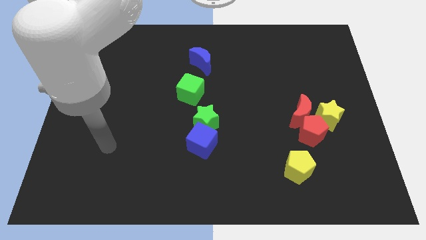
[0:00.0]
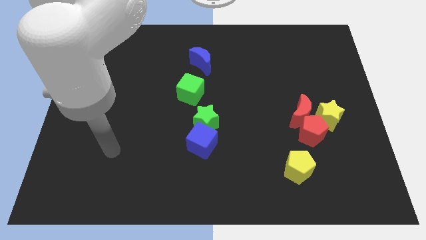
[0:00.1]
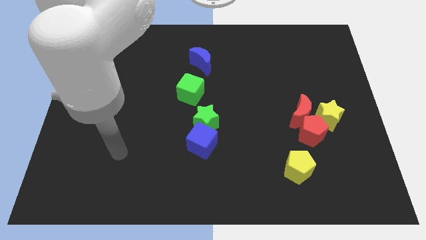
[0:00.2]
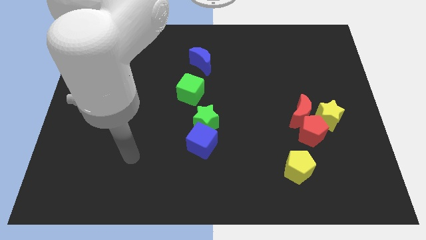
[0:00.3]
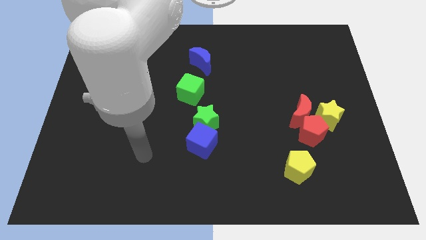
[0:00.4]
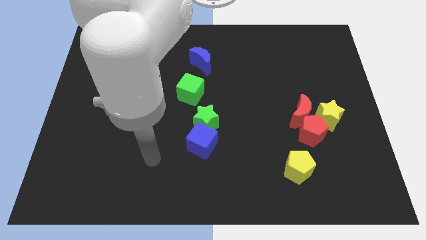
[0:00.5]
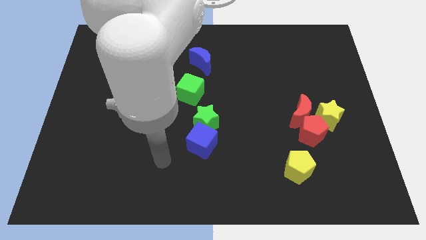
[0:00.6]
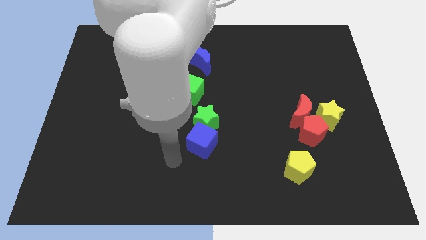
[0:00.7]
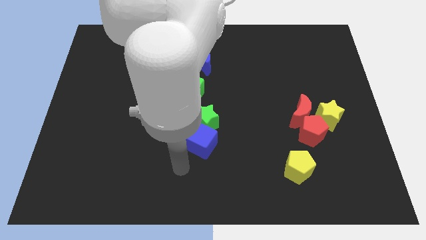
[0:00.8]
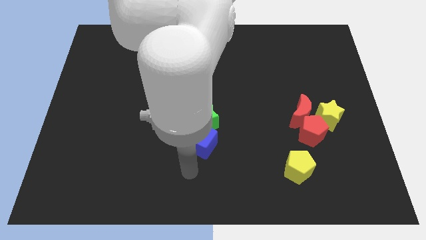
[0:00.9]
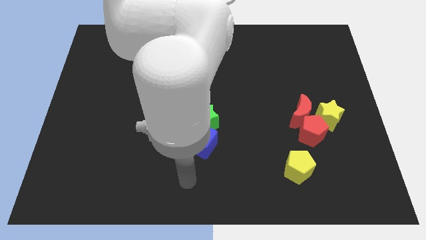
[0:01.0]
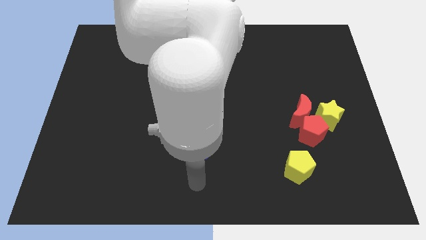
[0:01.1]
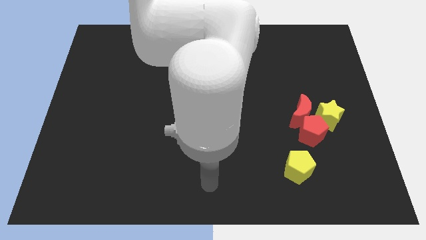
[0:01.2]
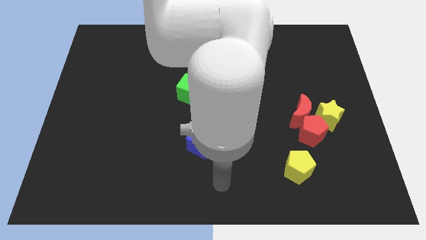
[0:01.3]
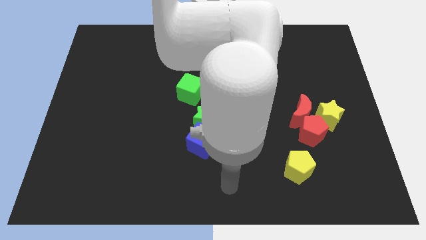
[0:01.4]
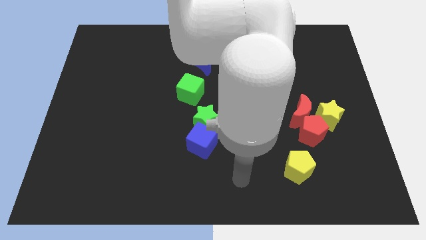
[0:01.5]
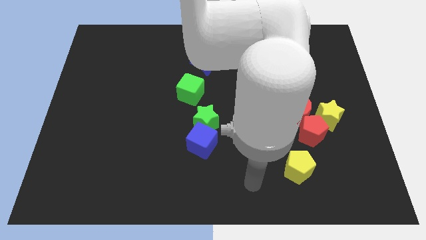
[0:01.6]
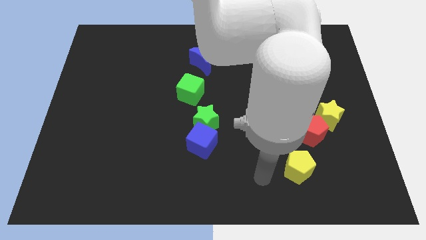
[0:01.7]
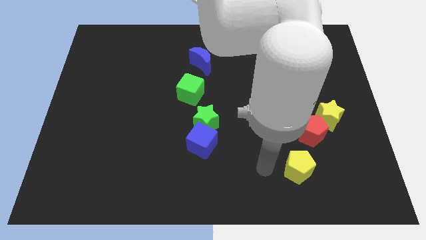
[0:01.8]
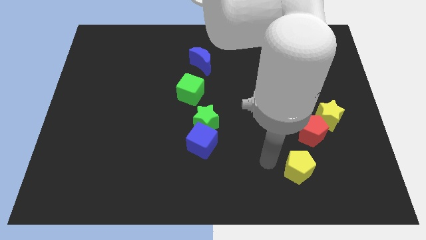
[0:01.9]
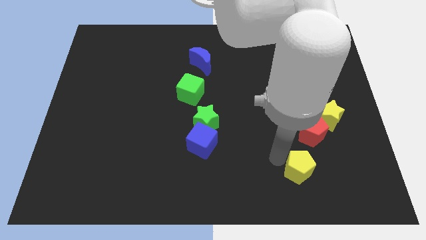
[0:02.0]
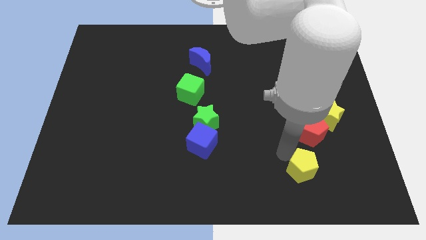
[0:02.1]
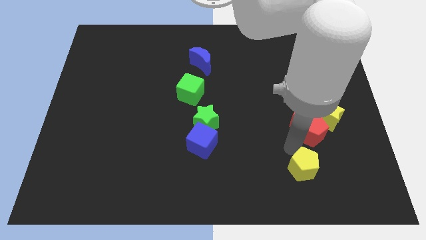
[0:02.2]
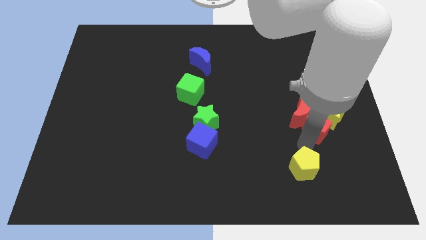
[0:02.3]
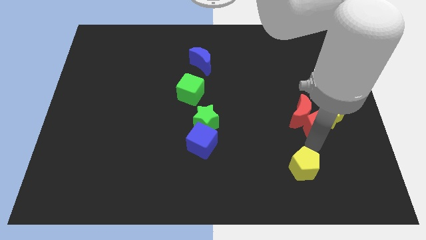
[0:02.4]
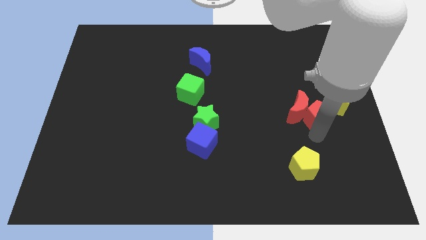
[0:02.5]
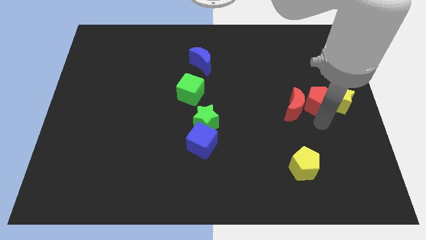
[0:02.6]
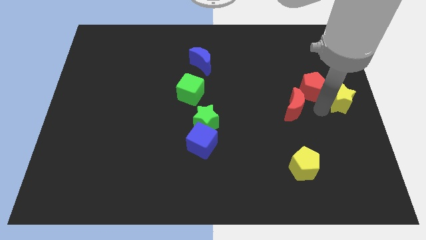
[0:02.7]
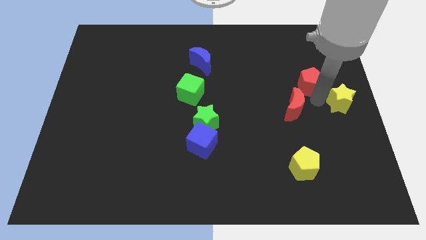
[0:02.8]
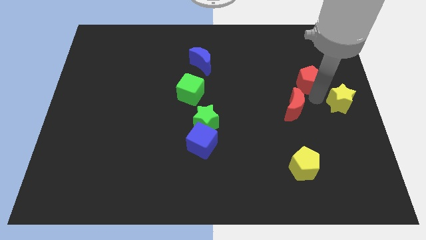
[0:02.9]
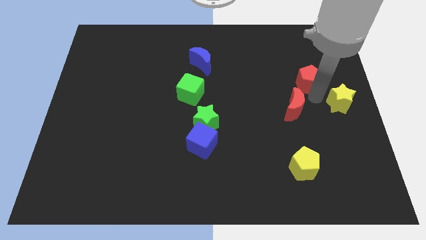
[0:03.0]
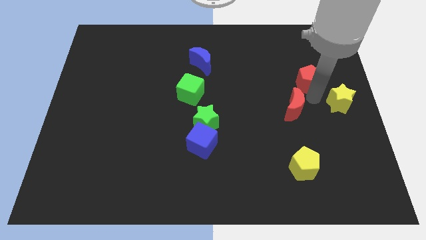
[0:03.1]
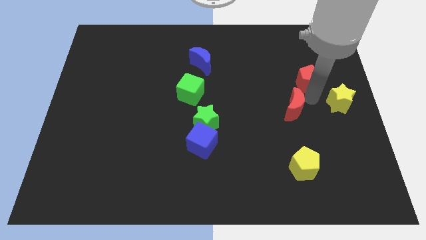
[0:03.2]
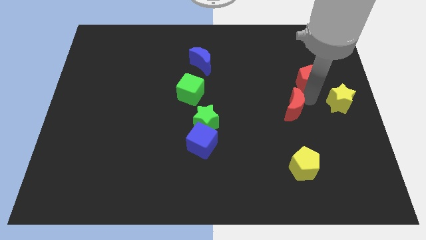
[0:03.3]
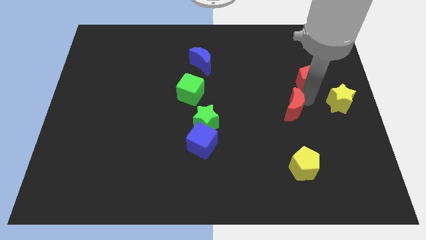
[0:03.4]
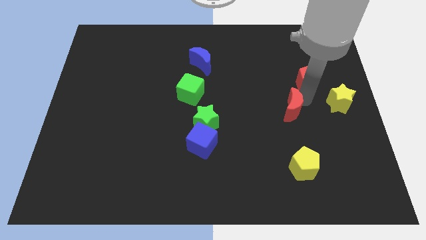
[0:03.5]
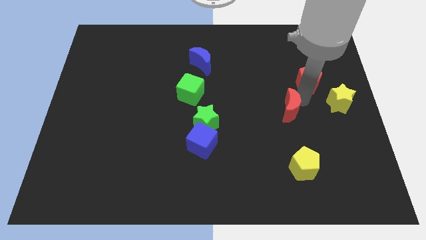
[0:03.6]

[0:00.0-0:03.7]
separate the red moon from the red pentagon and yellow star

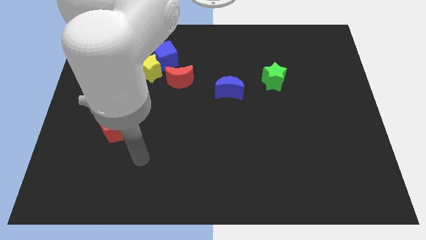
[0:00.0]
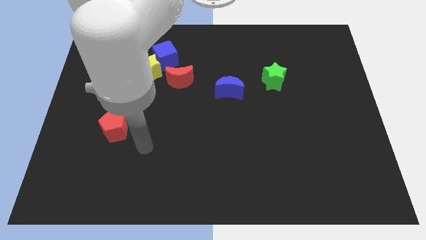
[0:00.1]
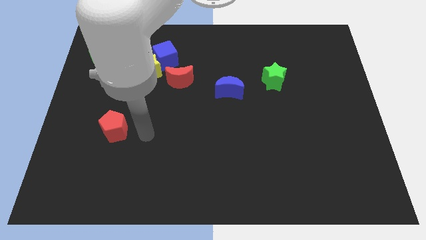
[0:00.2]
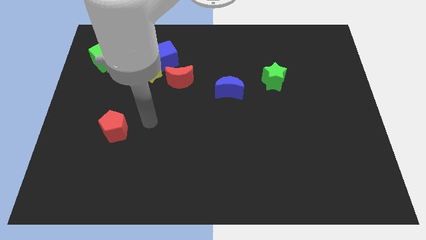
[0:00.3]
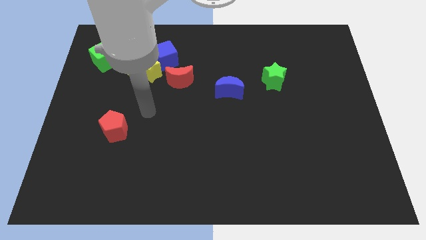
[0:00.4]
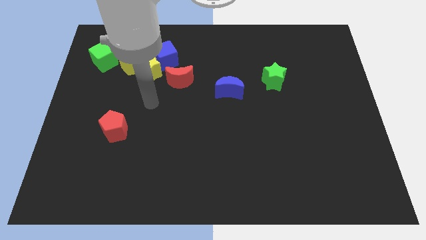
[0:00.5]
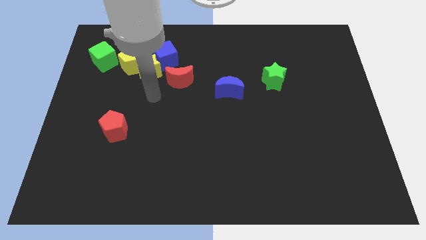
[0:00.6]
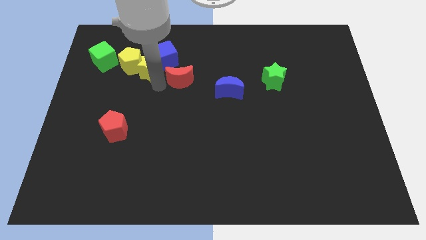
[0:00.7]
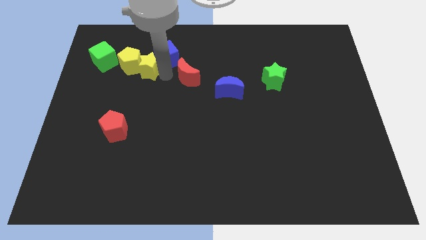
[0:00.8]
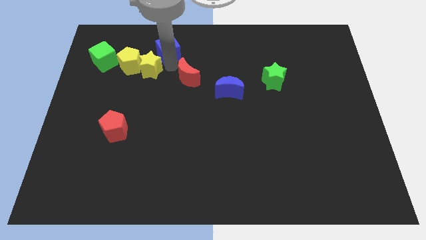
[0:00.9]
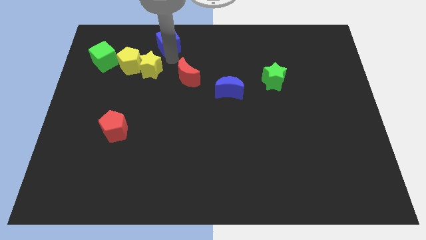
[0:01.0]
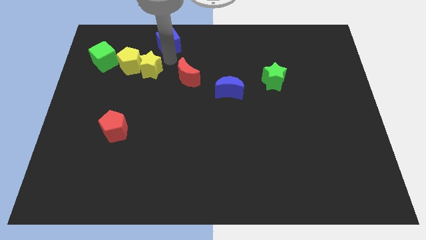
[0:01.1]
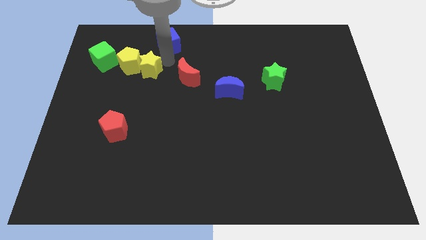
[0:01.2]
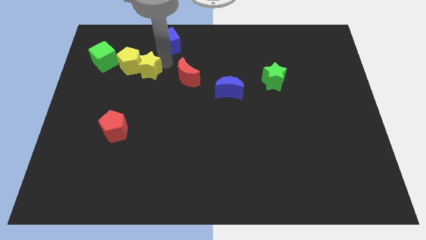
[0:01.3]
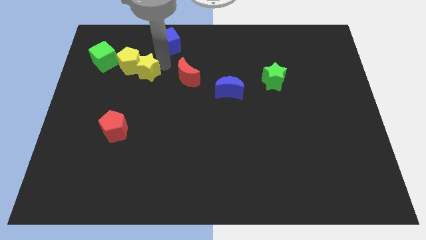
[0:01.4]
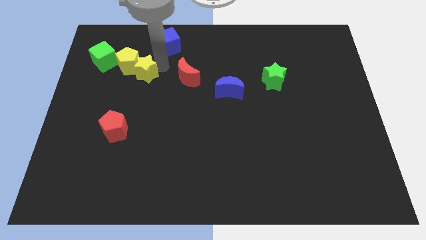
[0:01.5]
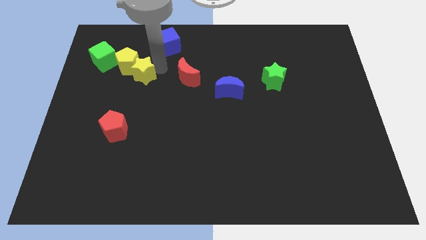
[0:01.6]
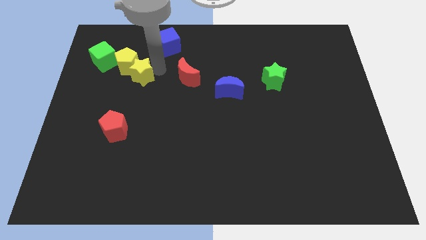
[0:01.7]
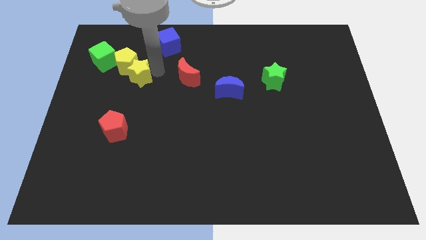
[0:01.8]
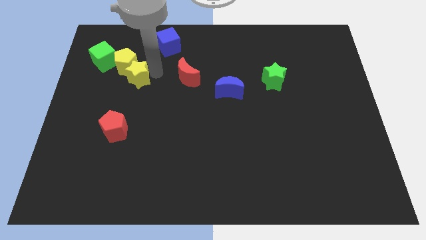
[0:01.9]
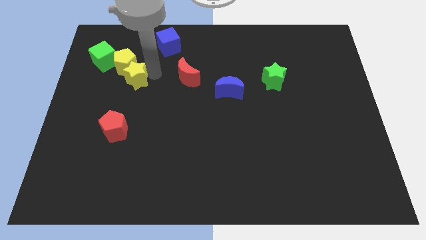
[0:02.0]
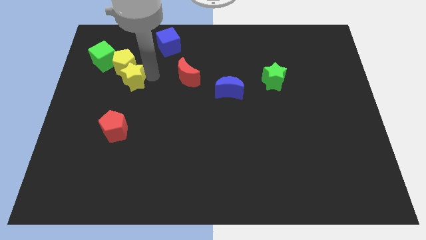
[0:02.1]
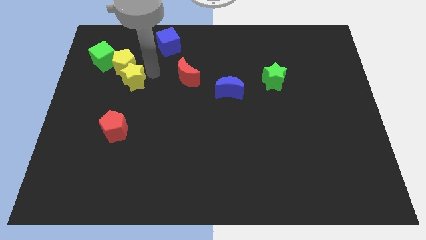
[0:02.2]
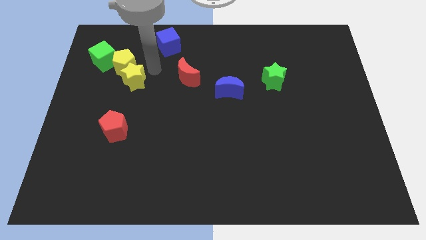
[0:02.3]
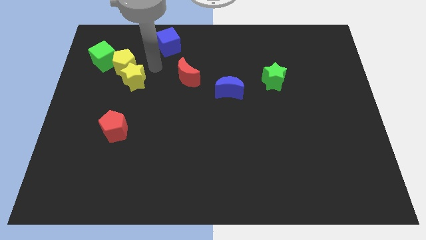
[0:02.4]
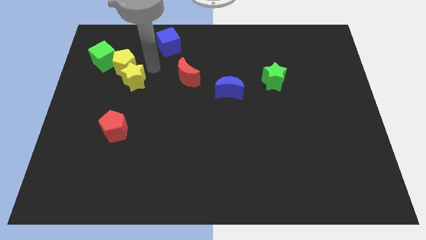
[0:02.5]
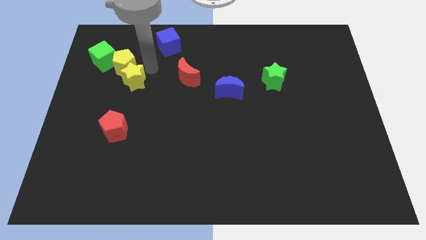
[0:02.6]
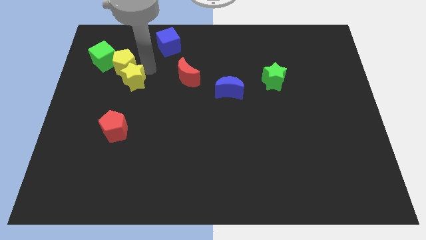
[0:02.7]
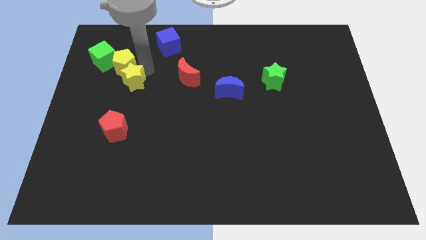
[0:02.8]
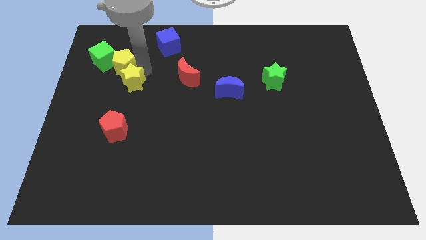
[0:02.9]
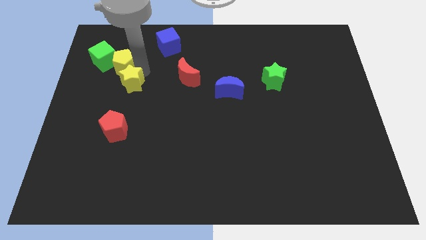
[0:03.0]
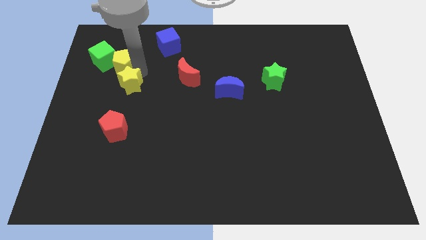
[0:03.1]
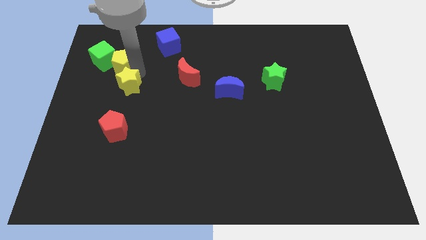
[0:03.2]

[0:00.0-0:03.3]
separate the yellow star from the group of blocks

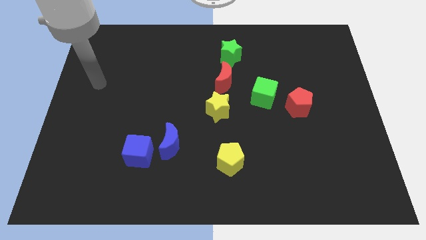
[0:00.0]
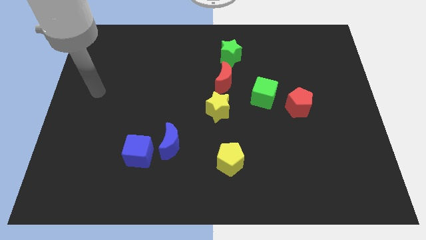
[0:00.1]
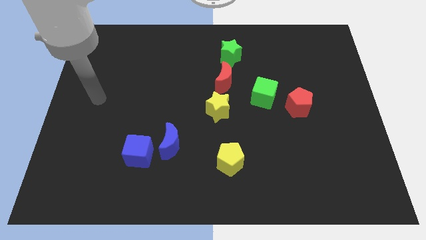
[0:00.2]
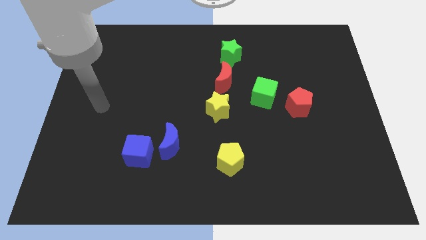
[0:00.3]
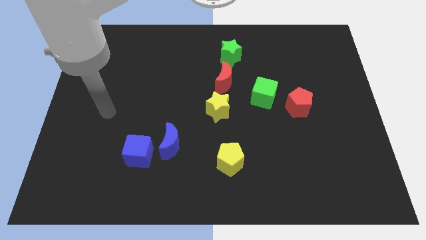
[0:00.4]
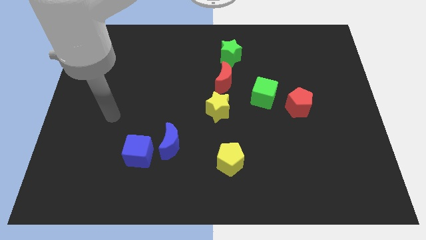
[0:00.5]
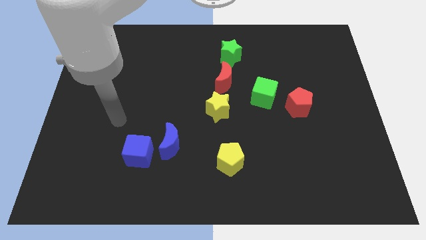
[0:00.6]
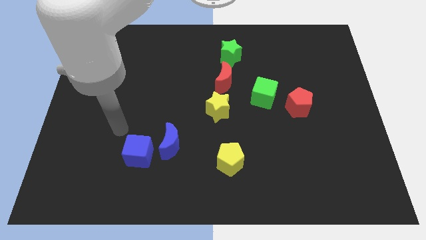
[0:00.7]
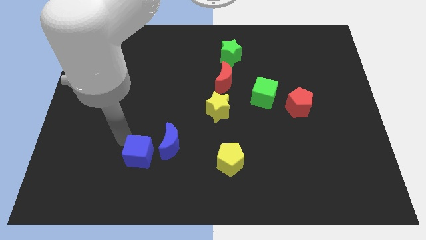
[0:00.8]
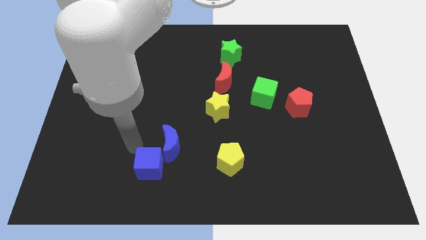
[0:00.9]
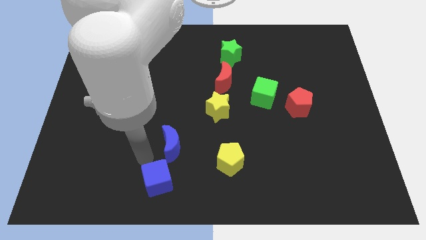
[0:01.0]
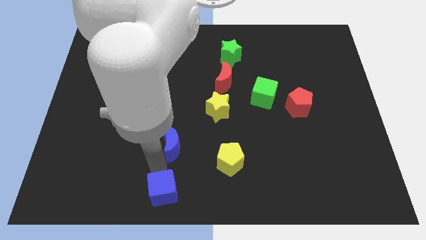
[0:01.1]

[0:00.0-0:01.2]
separate the blue moon from the blue cube

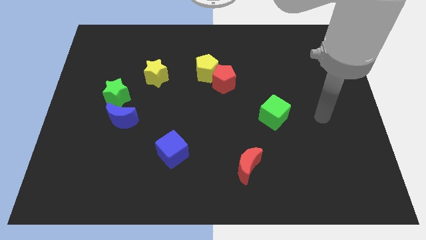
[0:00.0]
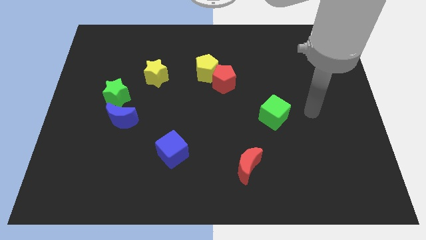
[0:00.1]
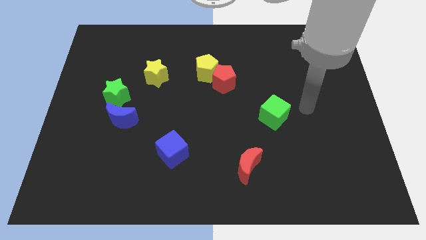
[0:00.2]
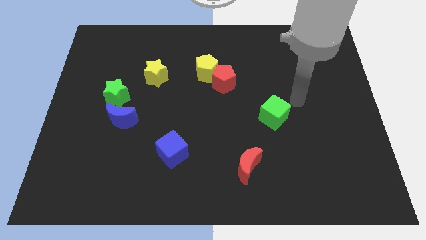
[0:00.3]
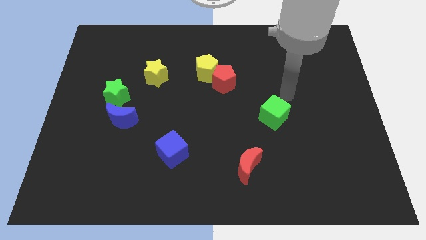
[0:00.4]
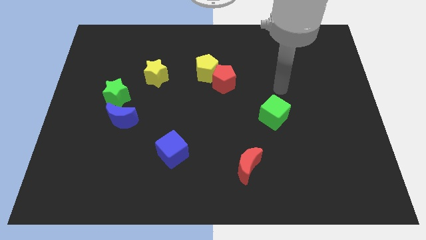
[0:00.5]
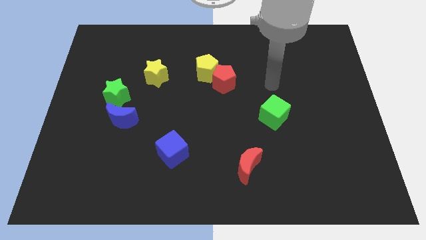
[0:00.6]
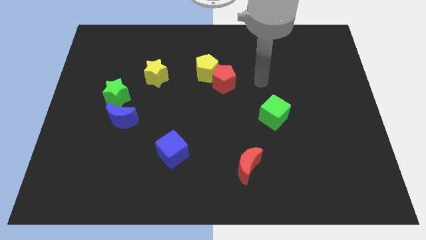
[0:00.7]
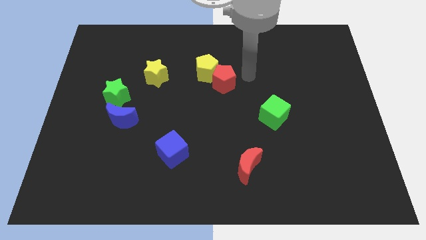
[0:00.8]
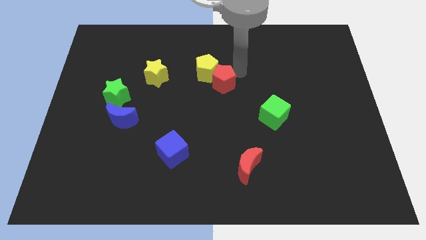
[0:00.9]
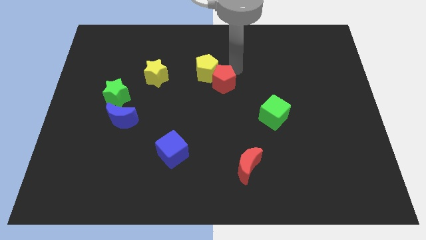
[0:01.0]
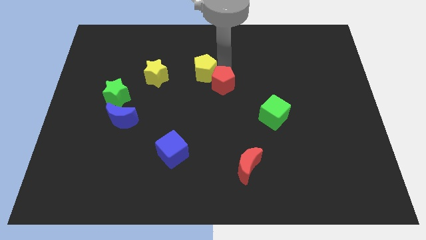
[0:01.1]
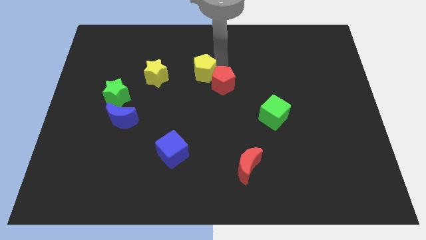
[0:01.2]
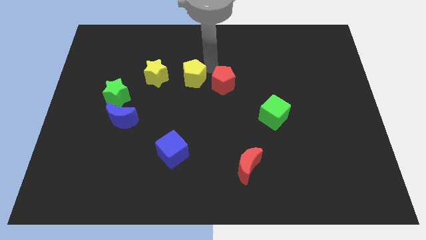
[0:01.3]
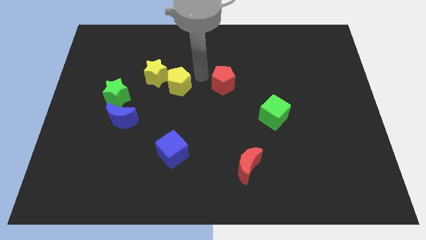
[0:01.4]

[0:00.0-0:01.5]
move the red pentagon away from the yellow pentagon
